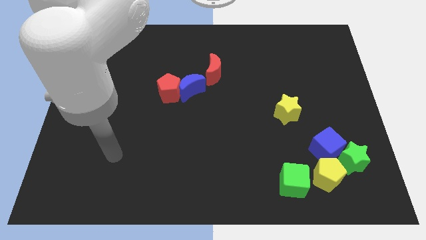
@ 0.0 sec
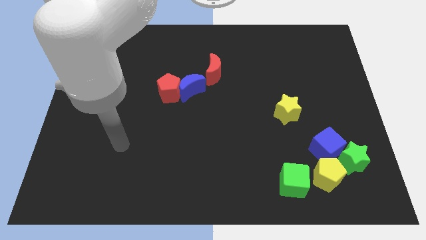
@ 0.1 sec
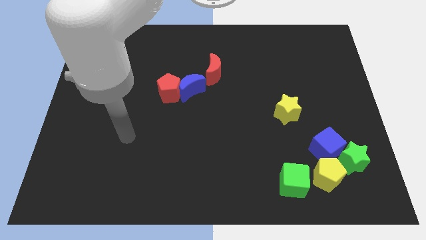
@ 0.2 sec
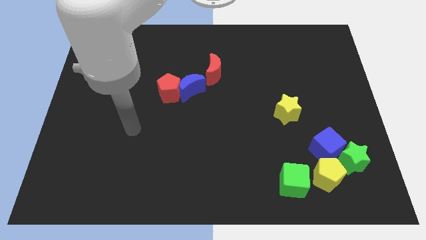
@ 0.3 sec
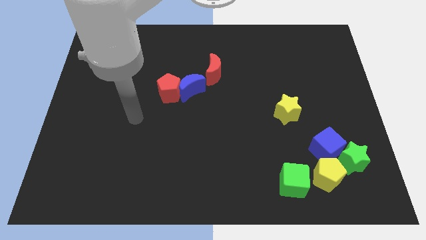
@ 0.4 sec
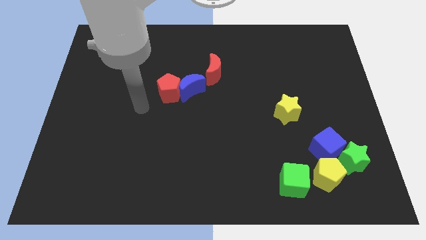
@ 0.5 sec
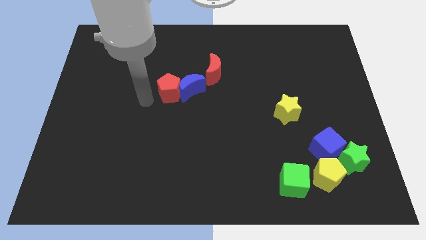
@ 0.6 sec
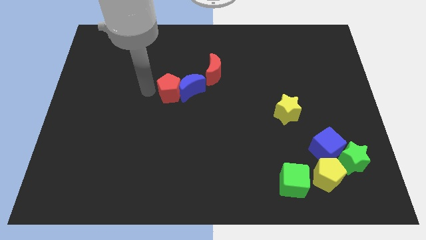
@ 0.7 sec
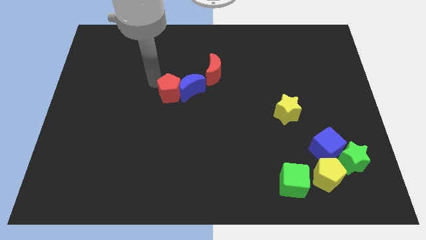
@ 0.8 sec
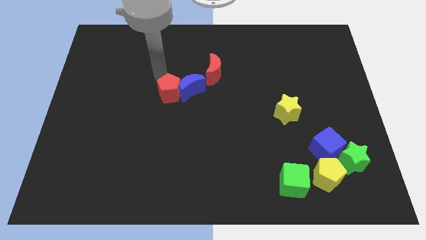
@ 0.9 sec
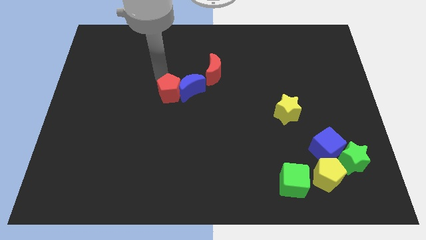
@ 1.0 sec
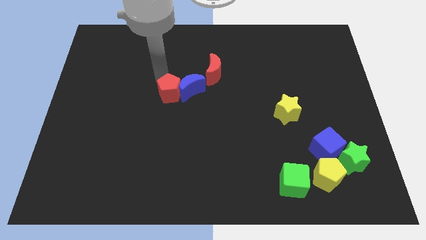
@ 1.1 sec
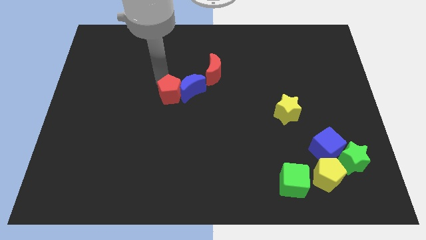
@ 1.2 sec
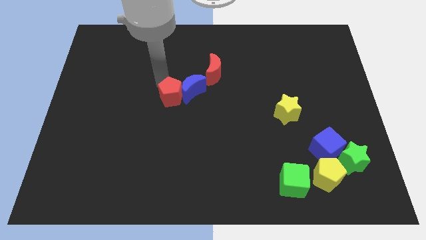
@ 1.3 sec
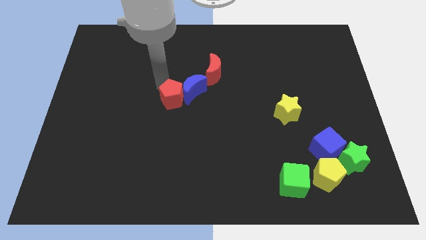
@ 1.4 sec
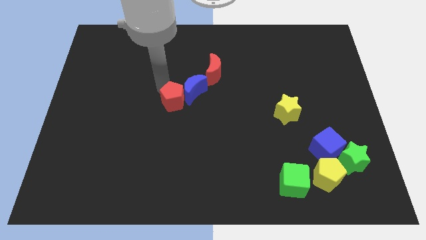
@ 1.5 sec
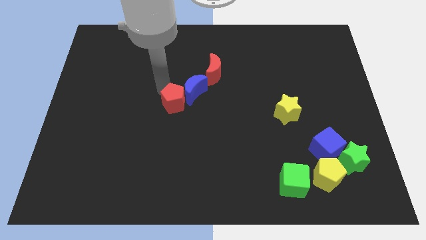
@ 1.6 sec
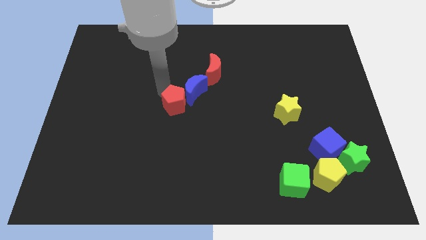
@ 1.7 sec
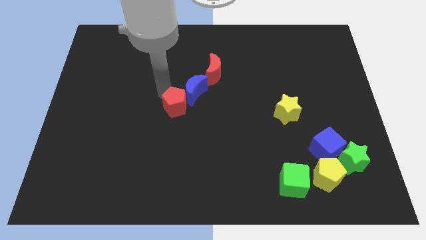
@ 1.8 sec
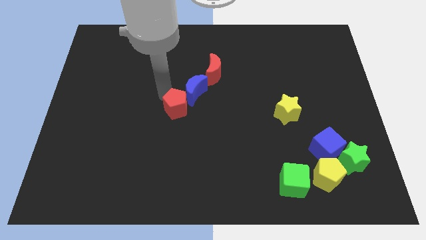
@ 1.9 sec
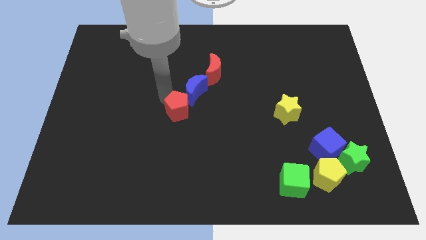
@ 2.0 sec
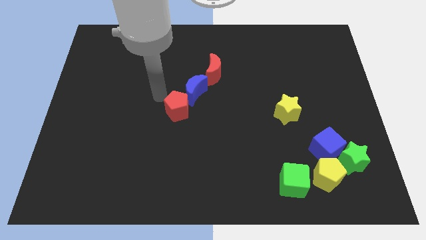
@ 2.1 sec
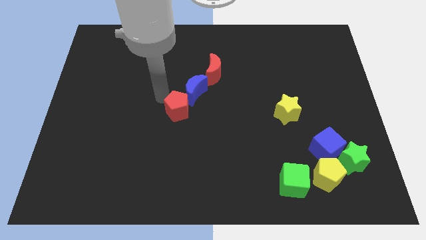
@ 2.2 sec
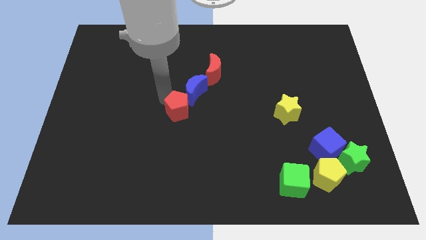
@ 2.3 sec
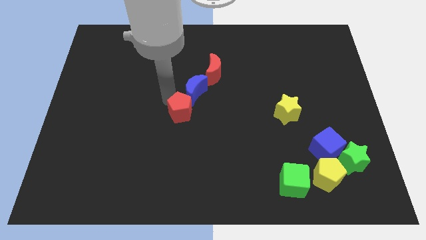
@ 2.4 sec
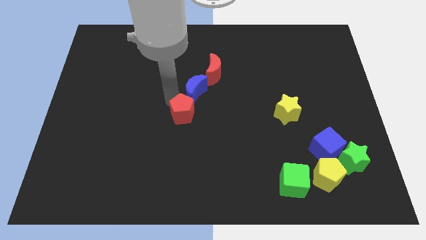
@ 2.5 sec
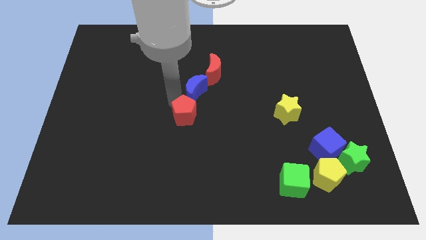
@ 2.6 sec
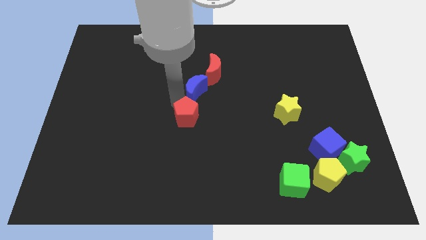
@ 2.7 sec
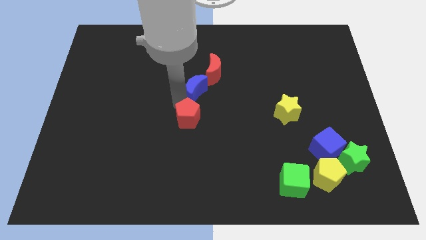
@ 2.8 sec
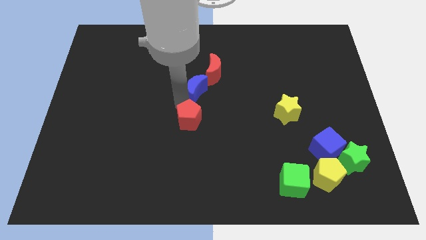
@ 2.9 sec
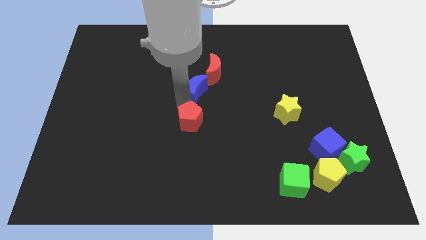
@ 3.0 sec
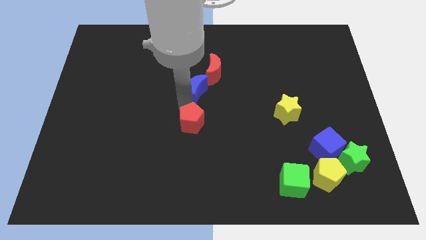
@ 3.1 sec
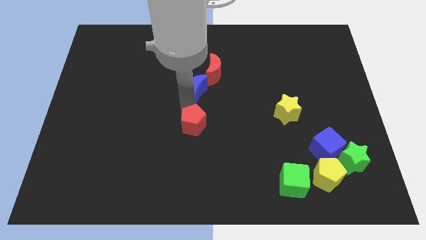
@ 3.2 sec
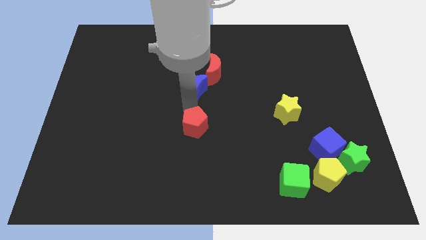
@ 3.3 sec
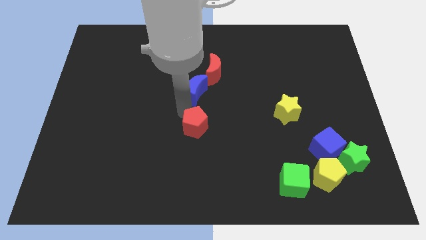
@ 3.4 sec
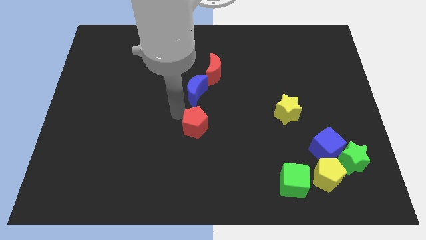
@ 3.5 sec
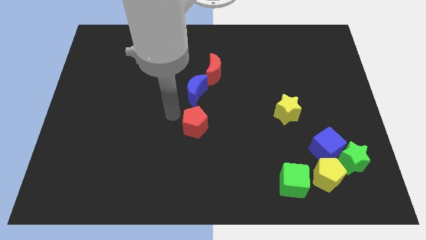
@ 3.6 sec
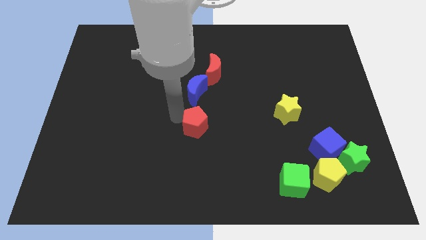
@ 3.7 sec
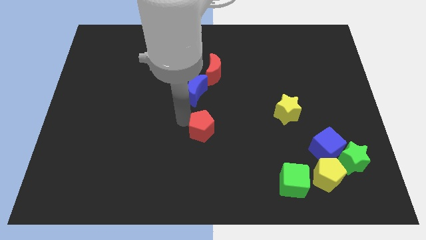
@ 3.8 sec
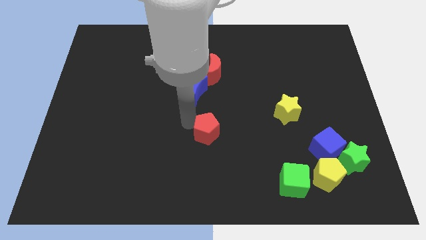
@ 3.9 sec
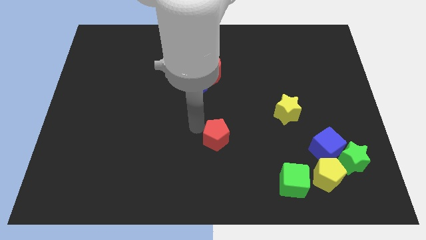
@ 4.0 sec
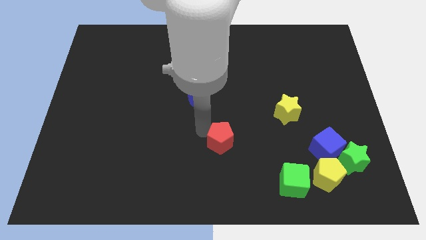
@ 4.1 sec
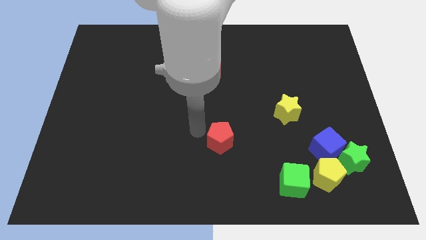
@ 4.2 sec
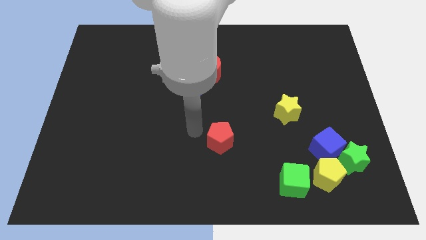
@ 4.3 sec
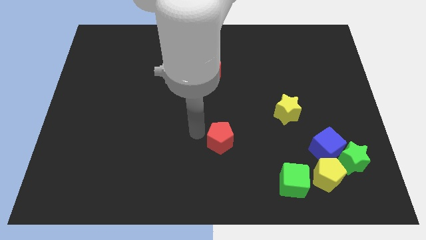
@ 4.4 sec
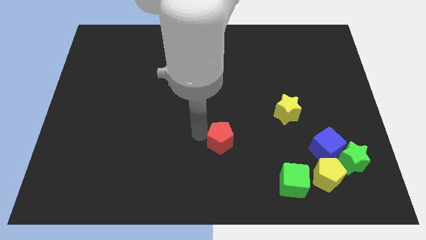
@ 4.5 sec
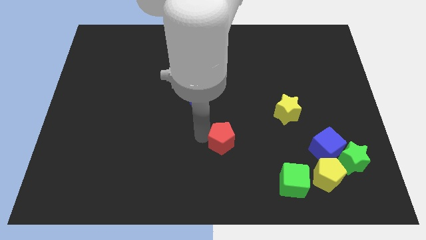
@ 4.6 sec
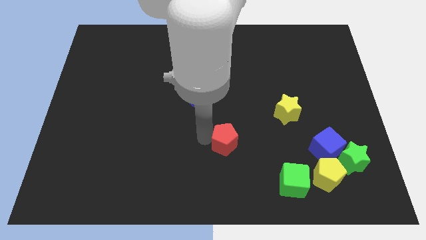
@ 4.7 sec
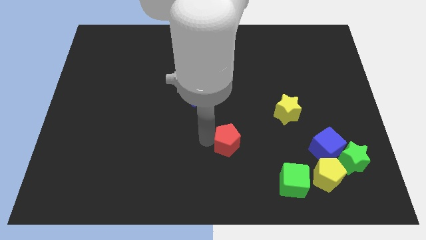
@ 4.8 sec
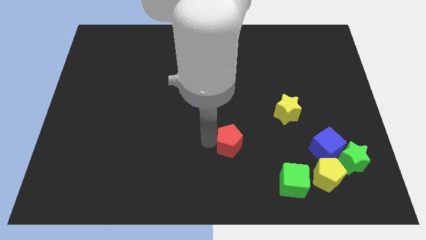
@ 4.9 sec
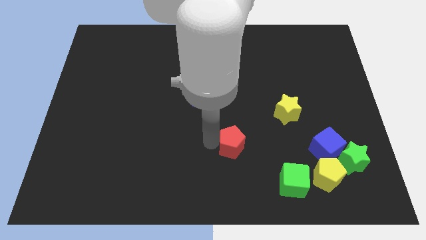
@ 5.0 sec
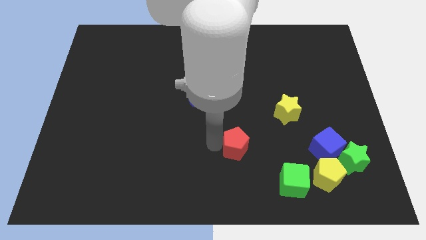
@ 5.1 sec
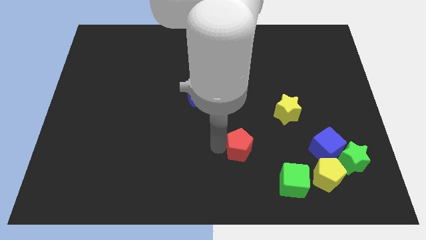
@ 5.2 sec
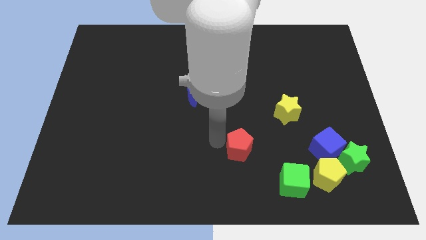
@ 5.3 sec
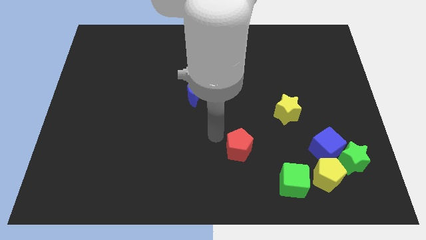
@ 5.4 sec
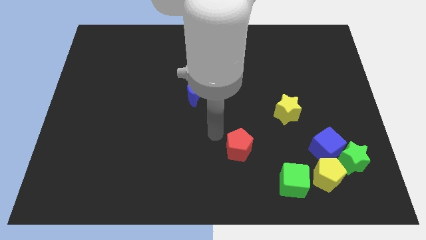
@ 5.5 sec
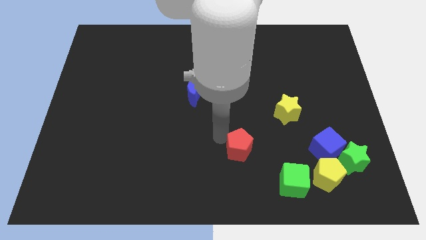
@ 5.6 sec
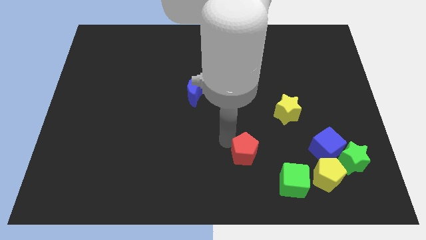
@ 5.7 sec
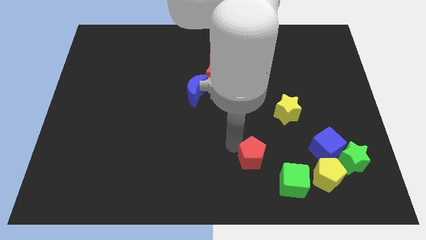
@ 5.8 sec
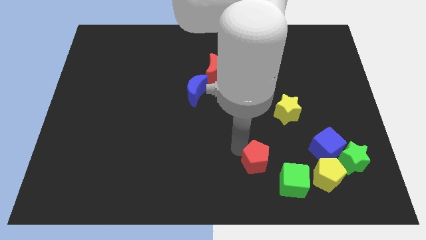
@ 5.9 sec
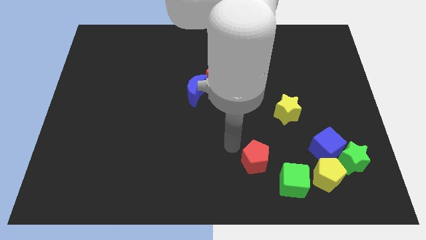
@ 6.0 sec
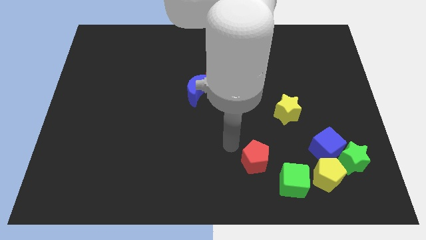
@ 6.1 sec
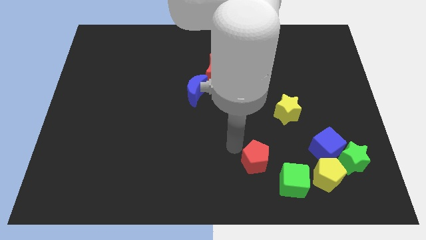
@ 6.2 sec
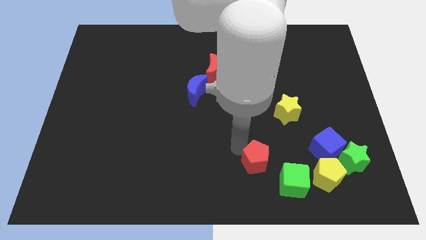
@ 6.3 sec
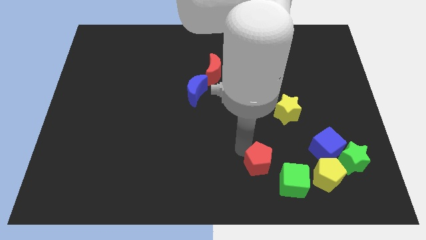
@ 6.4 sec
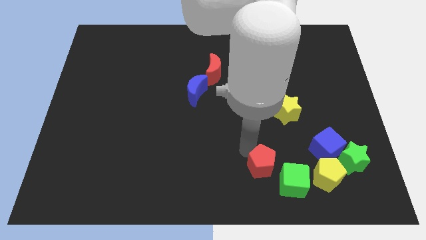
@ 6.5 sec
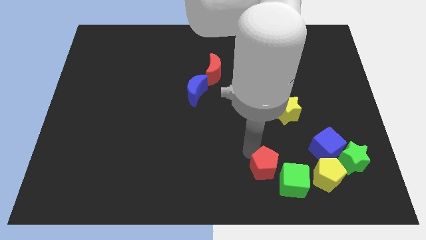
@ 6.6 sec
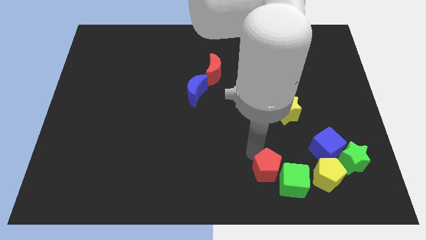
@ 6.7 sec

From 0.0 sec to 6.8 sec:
move the red pentagon to the green cube

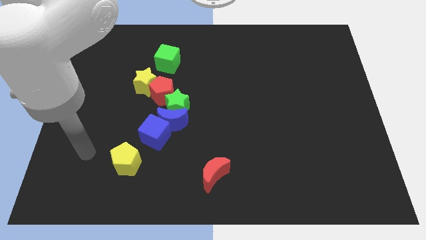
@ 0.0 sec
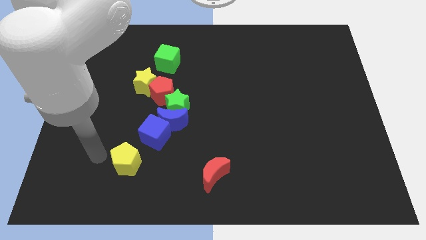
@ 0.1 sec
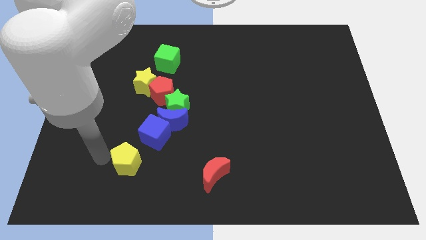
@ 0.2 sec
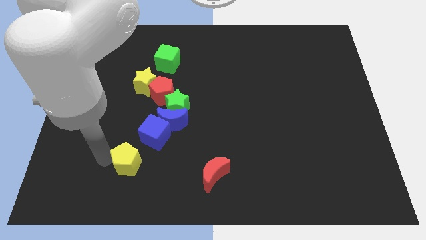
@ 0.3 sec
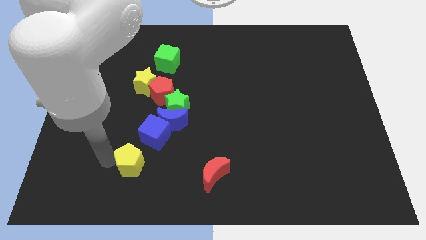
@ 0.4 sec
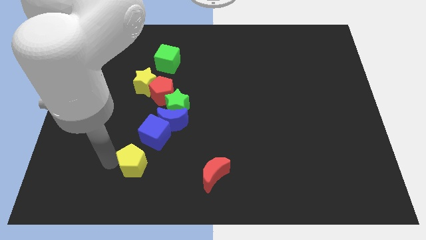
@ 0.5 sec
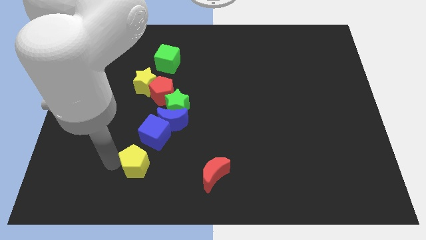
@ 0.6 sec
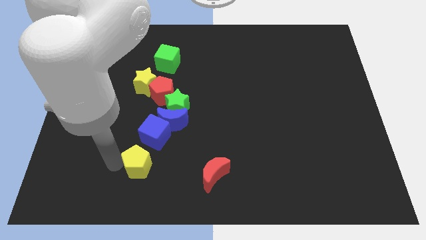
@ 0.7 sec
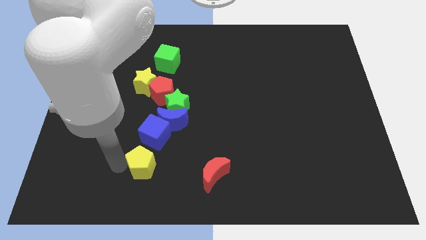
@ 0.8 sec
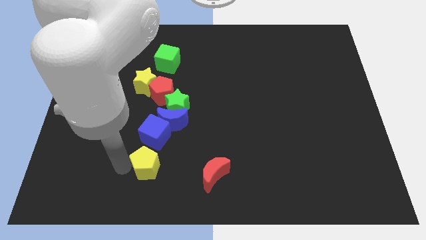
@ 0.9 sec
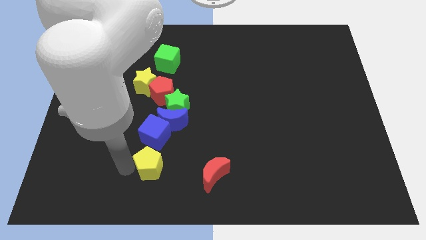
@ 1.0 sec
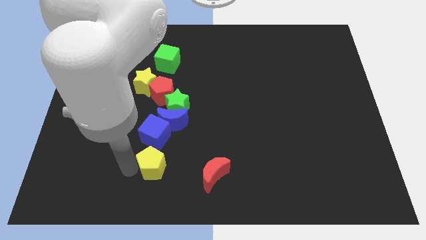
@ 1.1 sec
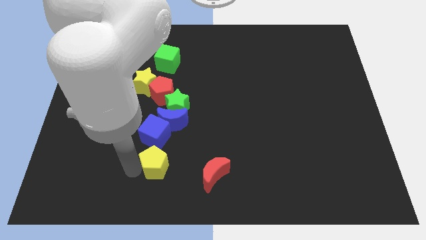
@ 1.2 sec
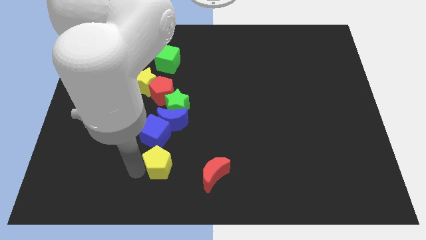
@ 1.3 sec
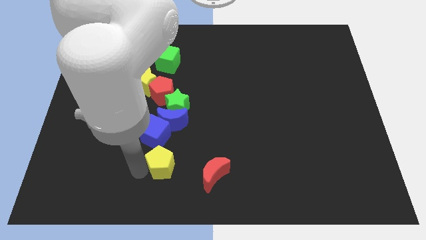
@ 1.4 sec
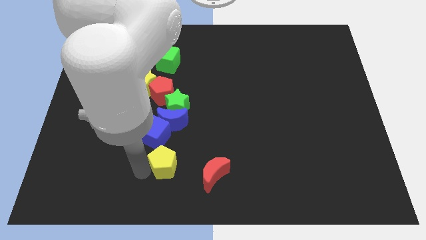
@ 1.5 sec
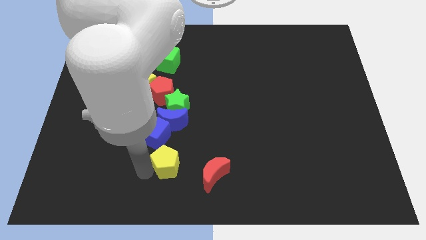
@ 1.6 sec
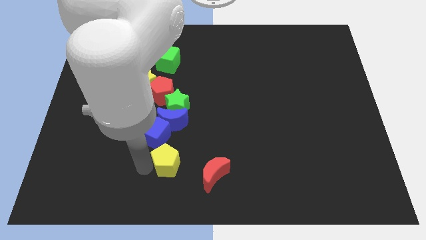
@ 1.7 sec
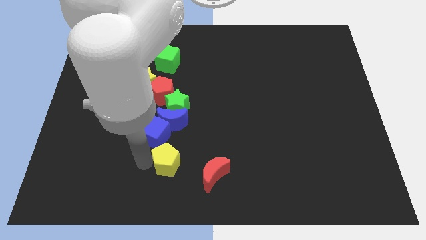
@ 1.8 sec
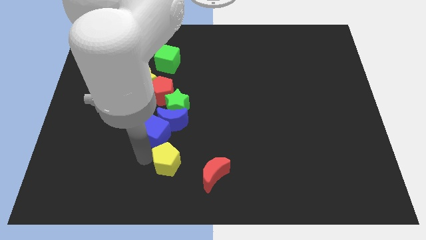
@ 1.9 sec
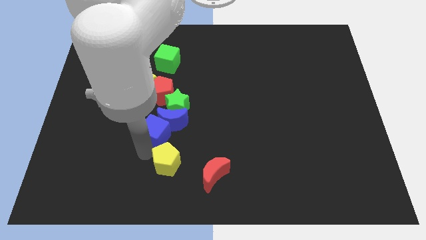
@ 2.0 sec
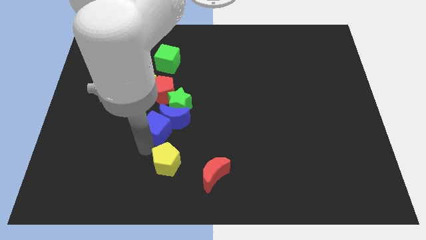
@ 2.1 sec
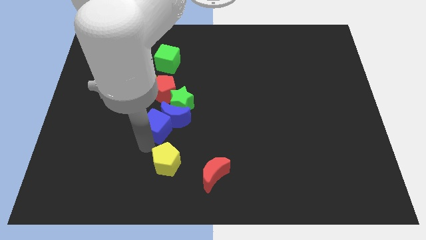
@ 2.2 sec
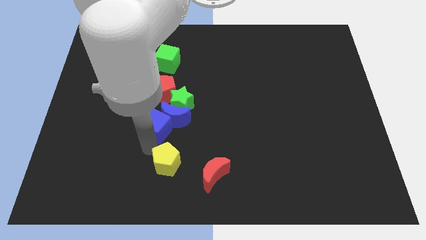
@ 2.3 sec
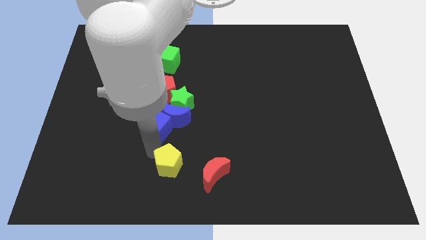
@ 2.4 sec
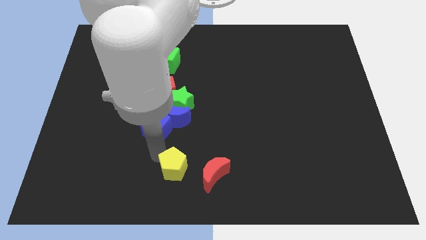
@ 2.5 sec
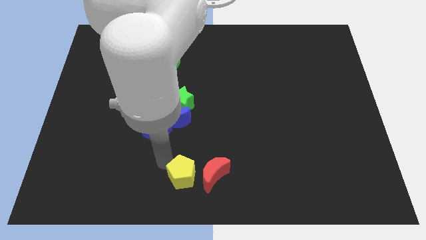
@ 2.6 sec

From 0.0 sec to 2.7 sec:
push the yellow pentagon next to the red moon
